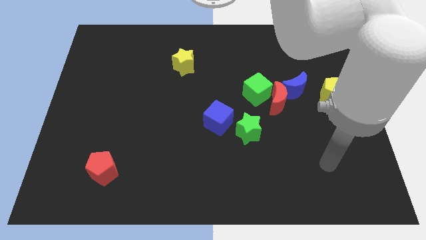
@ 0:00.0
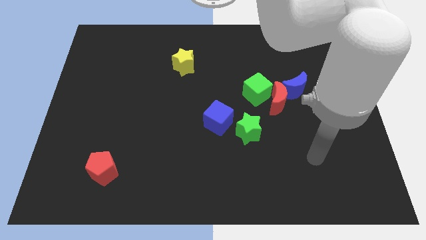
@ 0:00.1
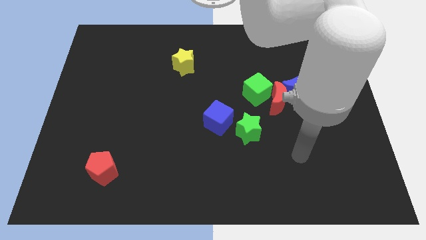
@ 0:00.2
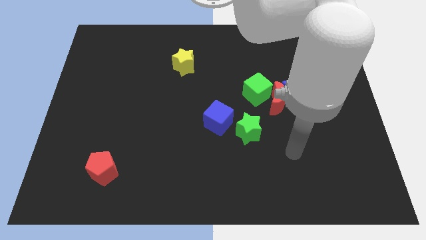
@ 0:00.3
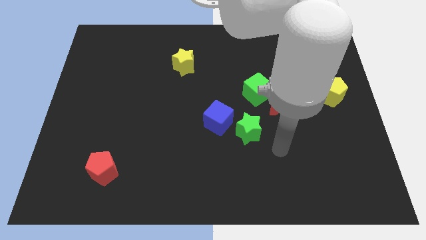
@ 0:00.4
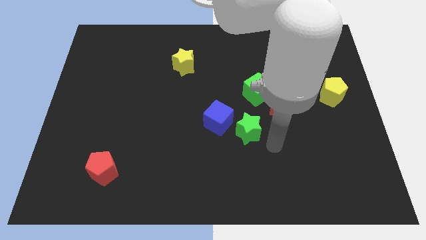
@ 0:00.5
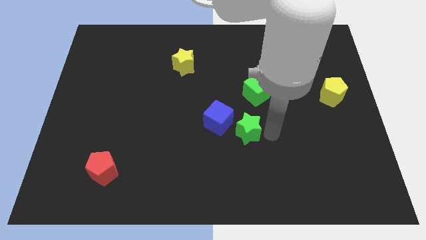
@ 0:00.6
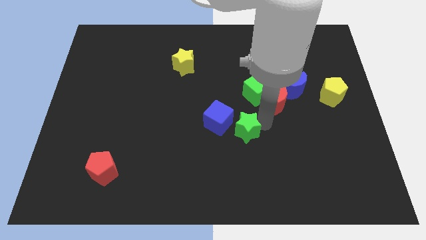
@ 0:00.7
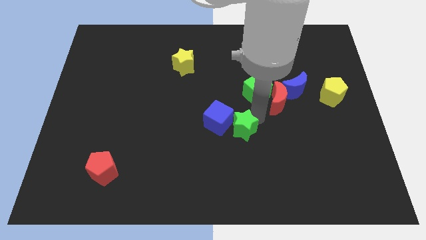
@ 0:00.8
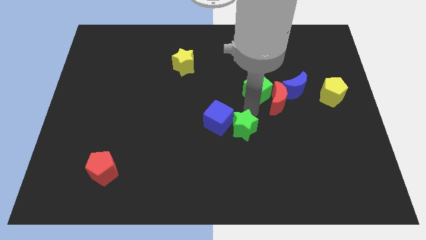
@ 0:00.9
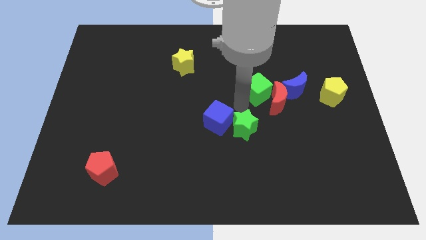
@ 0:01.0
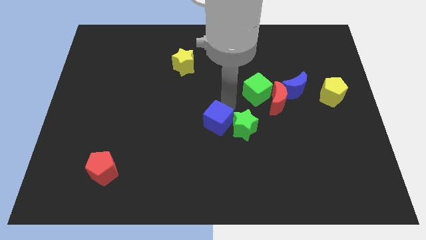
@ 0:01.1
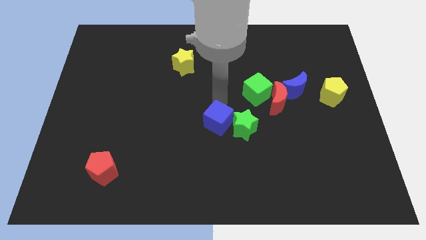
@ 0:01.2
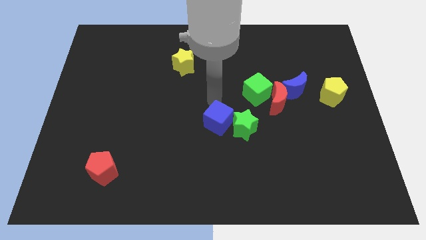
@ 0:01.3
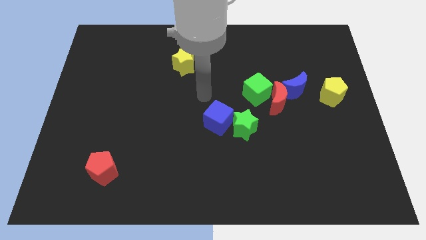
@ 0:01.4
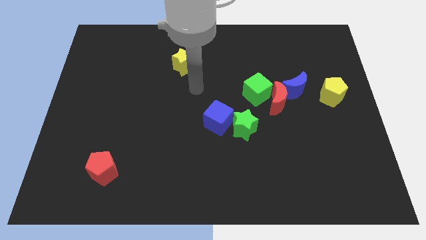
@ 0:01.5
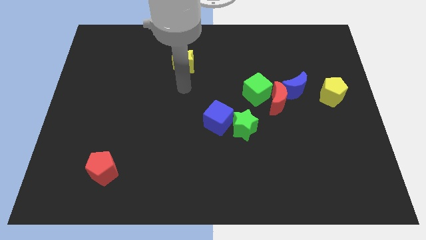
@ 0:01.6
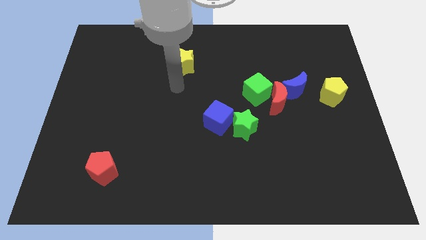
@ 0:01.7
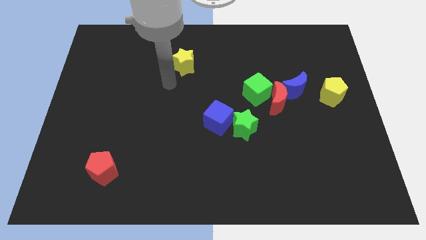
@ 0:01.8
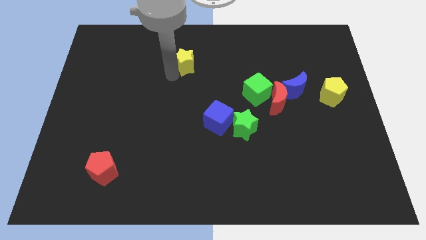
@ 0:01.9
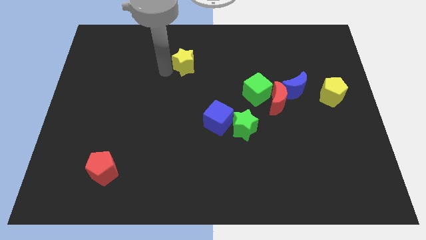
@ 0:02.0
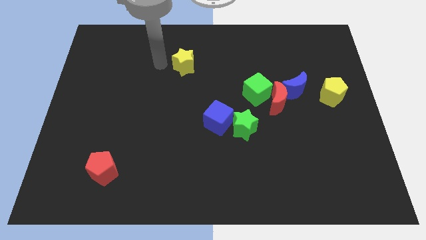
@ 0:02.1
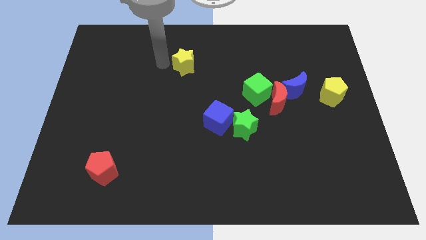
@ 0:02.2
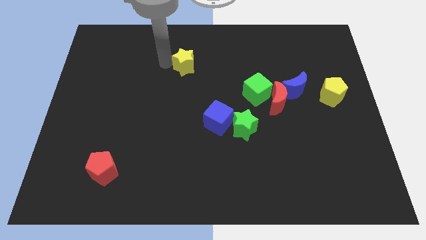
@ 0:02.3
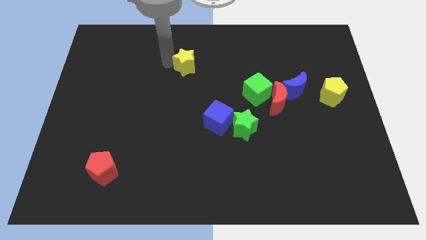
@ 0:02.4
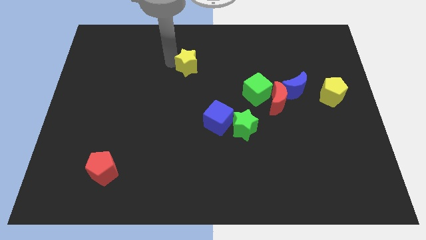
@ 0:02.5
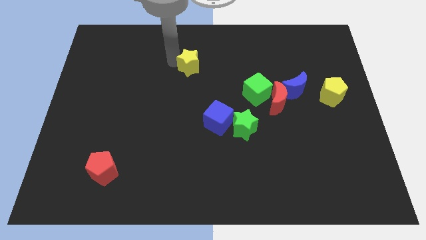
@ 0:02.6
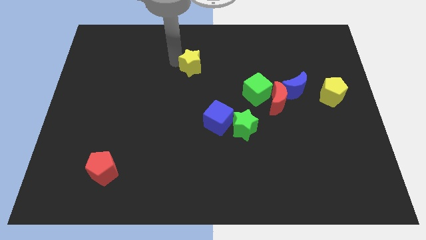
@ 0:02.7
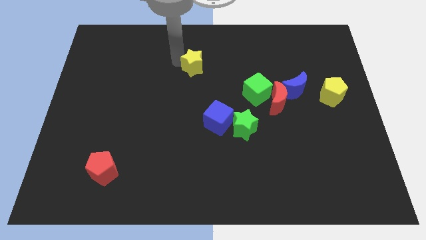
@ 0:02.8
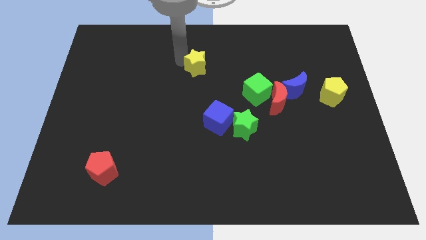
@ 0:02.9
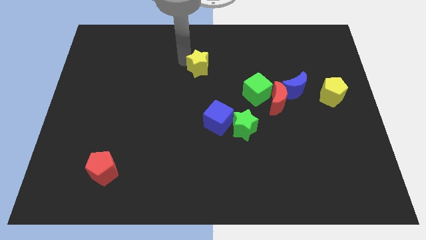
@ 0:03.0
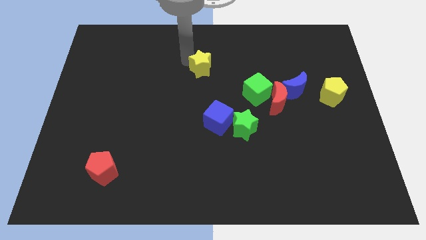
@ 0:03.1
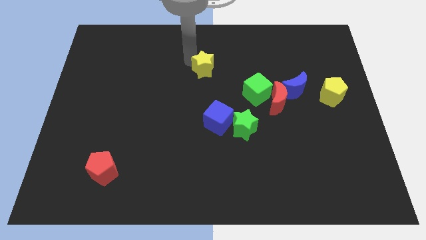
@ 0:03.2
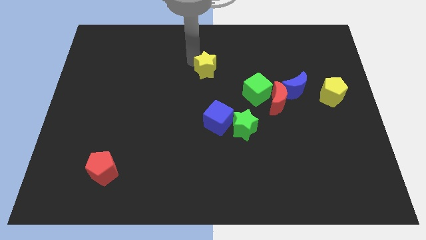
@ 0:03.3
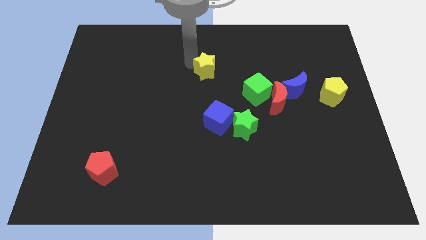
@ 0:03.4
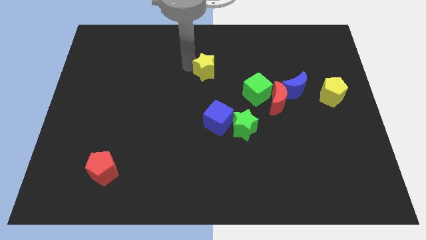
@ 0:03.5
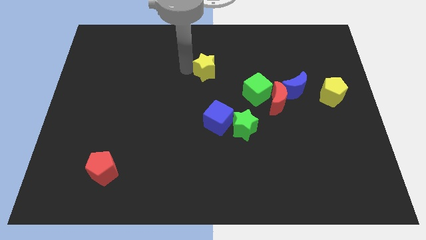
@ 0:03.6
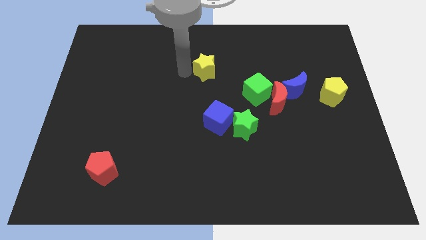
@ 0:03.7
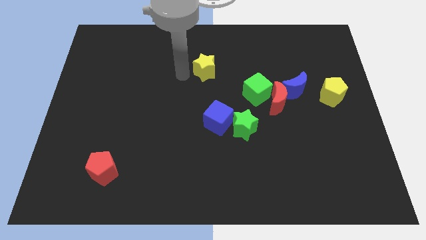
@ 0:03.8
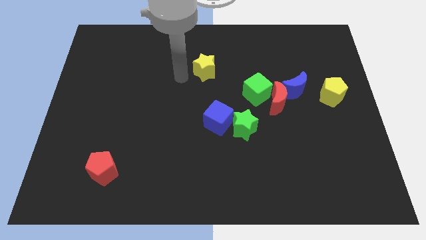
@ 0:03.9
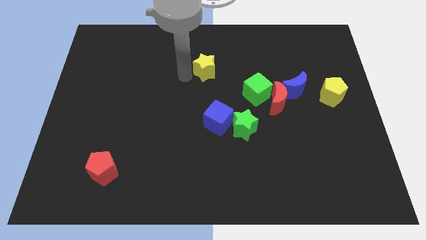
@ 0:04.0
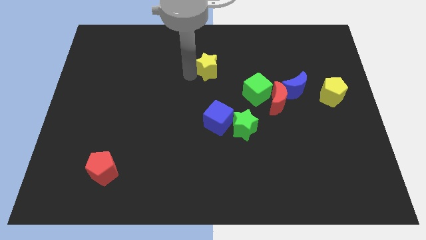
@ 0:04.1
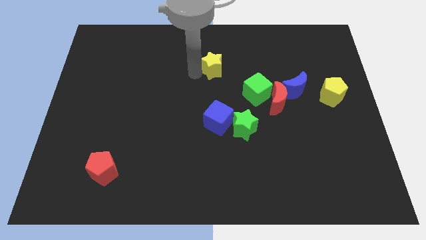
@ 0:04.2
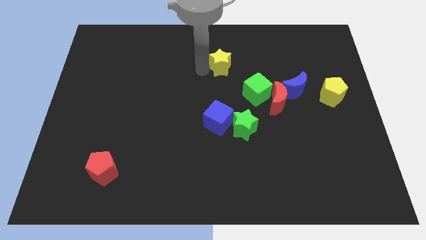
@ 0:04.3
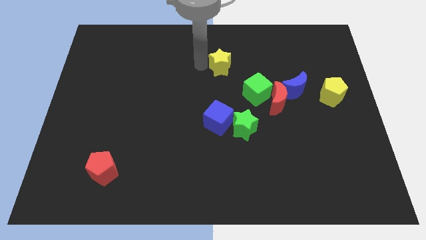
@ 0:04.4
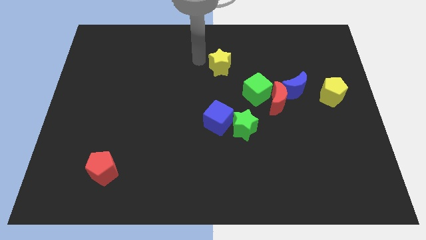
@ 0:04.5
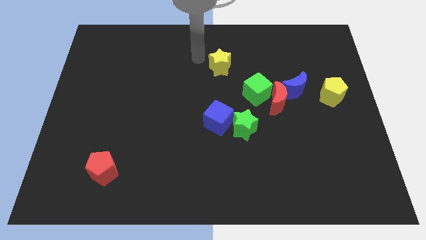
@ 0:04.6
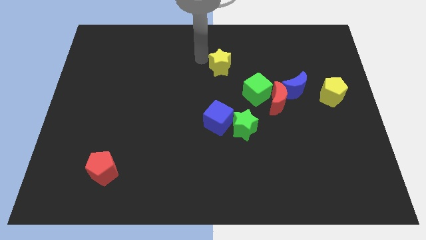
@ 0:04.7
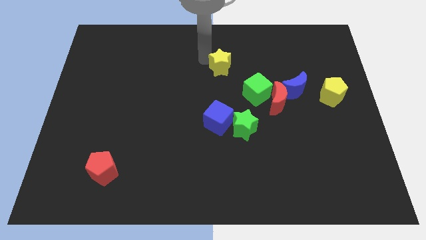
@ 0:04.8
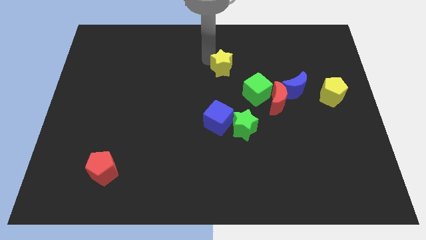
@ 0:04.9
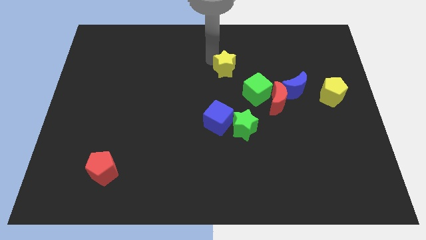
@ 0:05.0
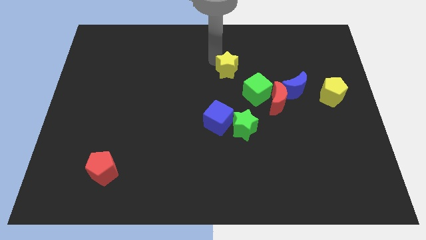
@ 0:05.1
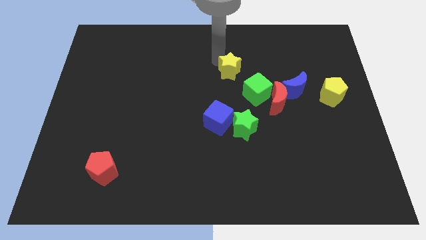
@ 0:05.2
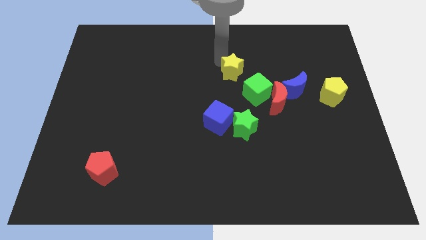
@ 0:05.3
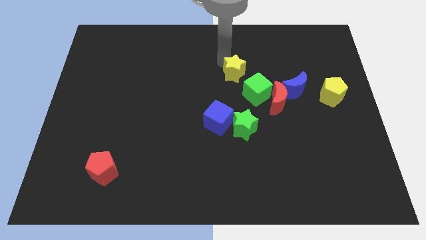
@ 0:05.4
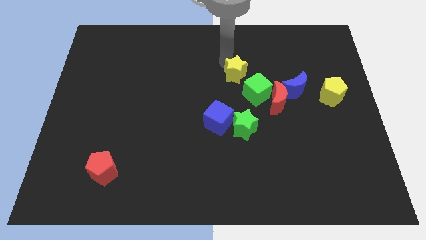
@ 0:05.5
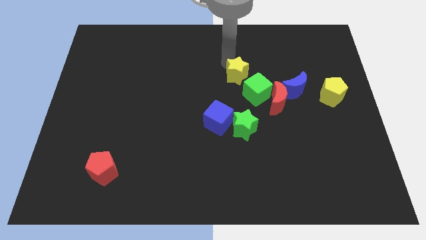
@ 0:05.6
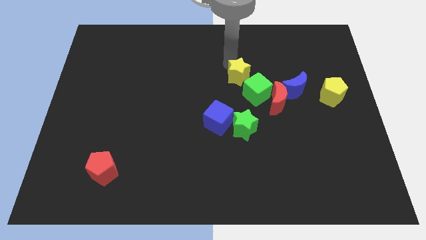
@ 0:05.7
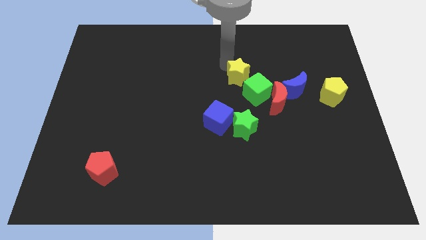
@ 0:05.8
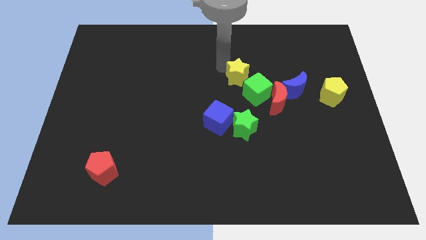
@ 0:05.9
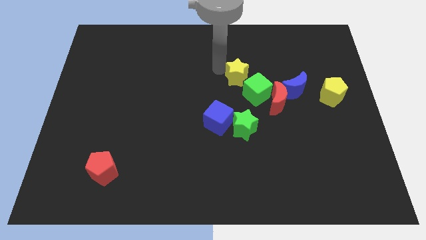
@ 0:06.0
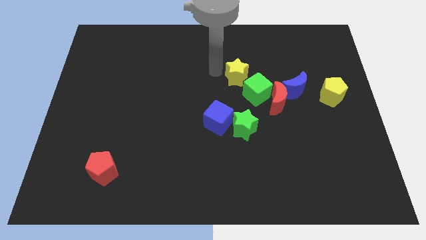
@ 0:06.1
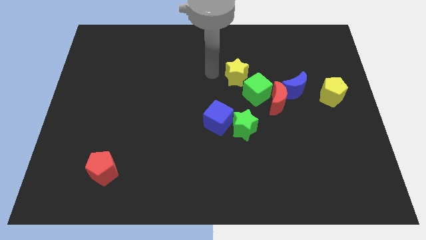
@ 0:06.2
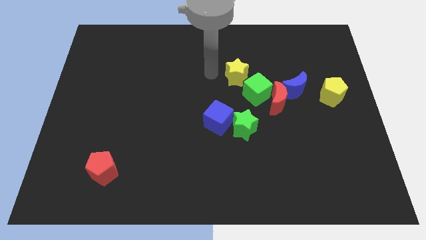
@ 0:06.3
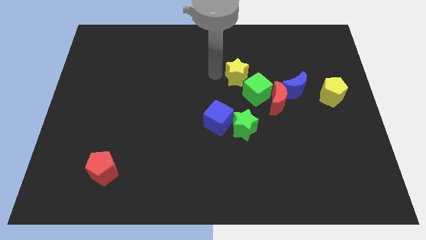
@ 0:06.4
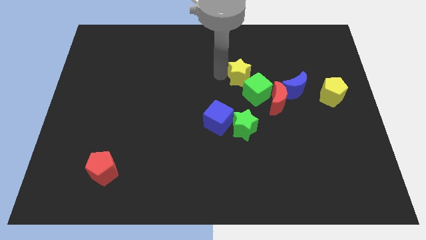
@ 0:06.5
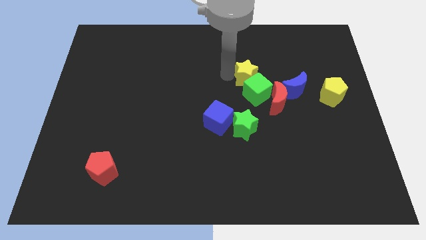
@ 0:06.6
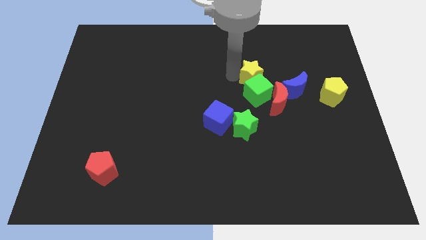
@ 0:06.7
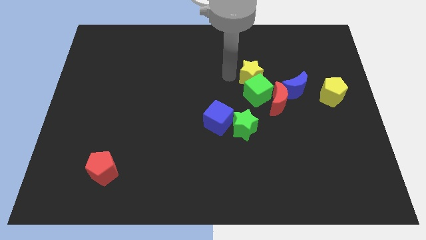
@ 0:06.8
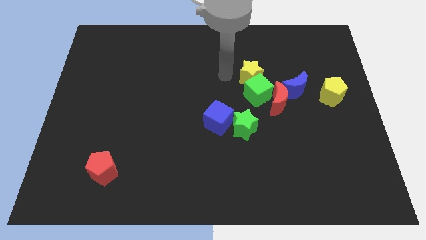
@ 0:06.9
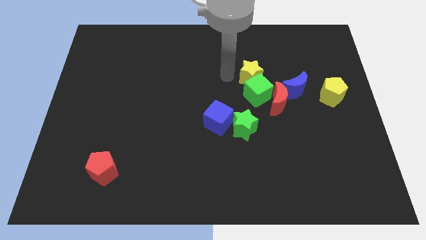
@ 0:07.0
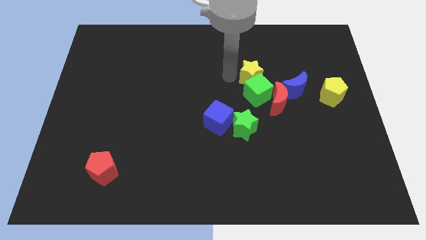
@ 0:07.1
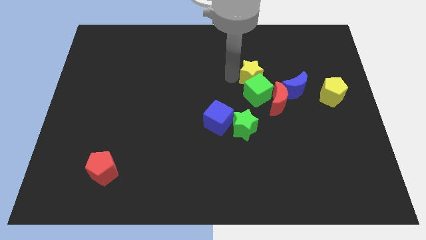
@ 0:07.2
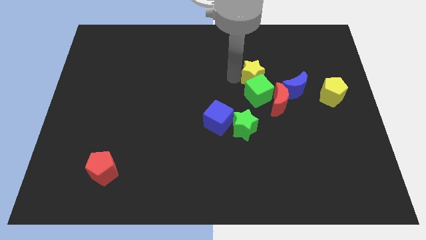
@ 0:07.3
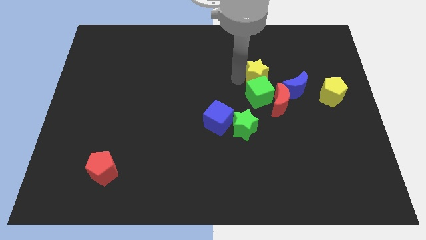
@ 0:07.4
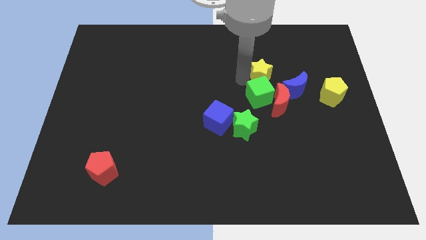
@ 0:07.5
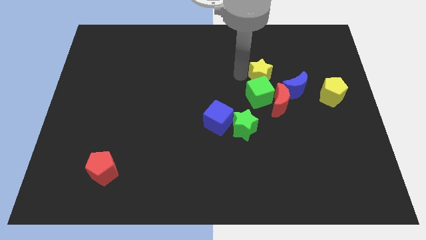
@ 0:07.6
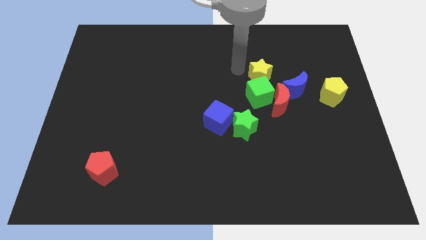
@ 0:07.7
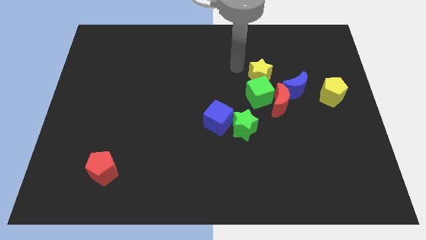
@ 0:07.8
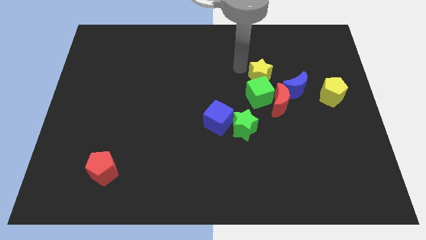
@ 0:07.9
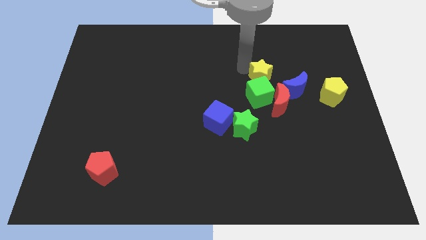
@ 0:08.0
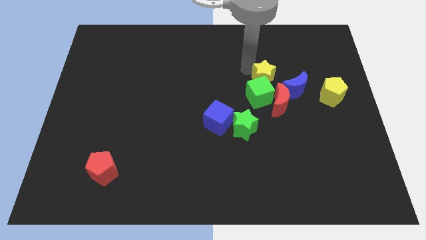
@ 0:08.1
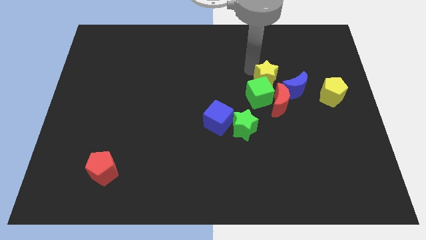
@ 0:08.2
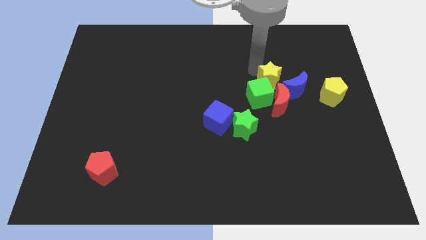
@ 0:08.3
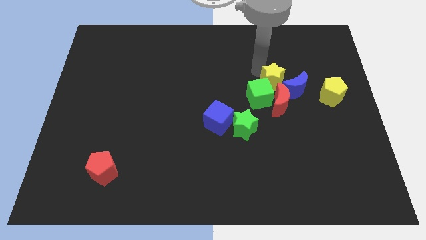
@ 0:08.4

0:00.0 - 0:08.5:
move the yellow star next to the blue moon
